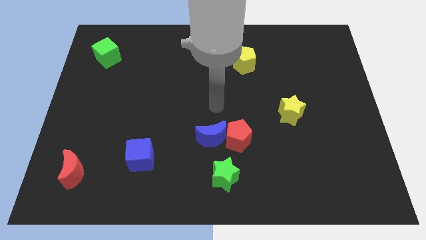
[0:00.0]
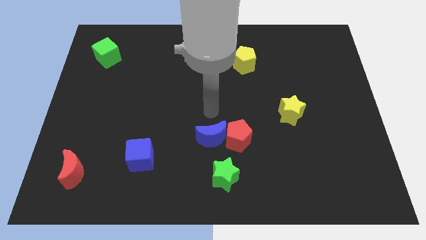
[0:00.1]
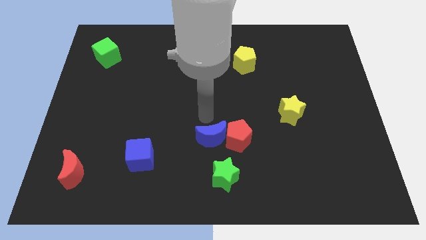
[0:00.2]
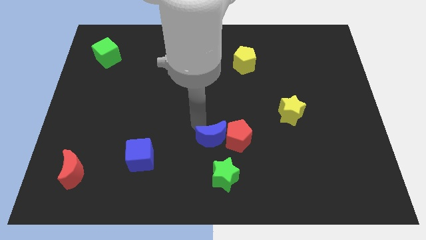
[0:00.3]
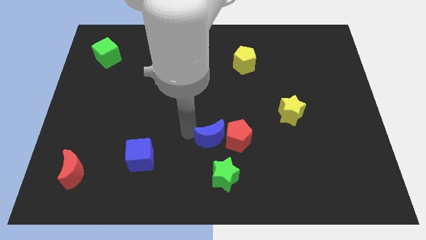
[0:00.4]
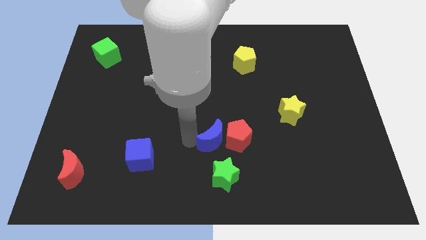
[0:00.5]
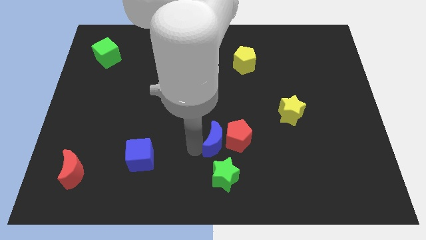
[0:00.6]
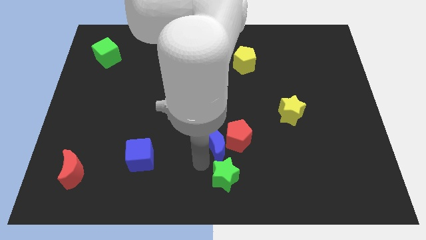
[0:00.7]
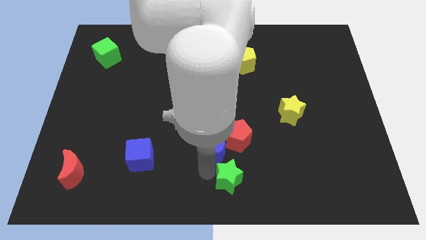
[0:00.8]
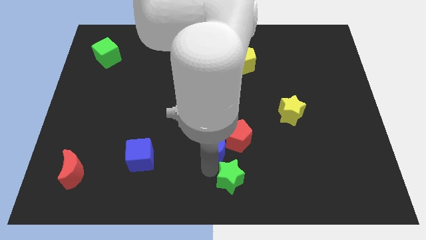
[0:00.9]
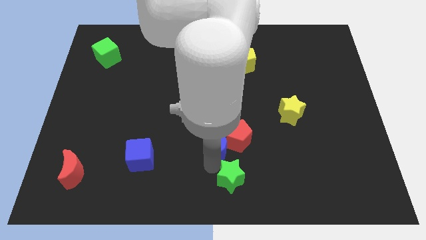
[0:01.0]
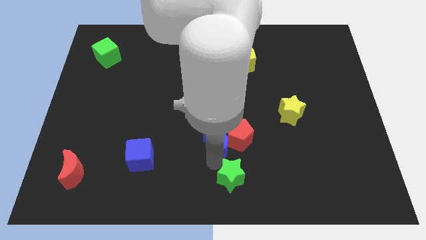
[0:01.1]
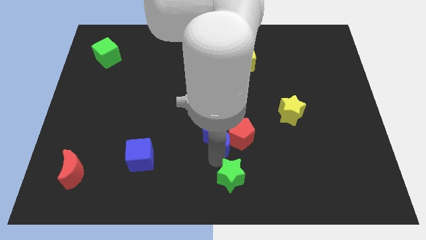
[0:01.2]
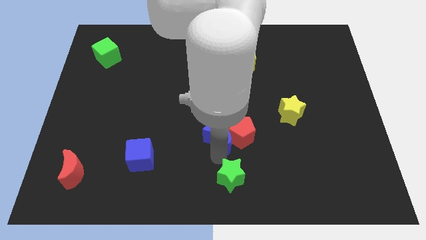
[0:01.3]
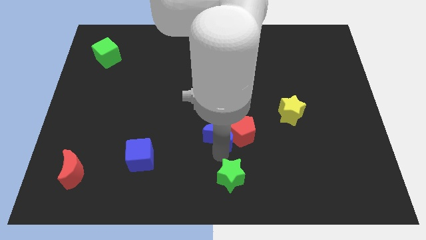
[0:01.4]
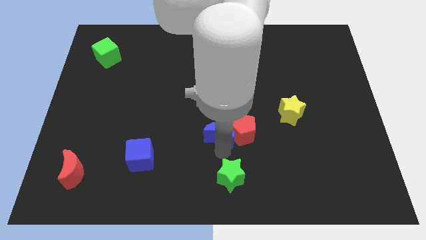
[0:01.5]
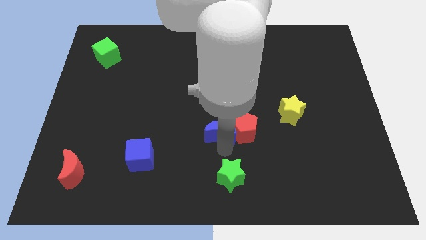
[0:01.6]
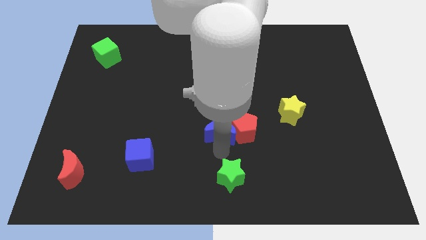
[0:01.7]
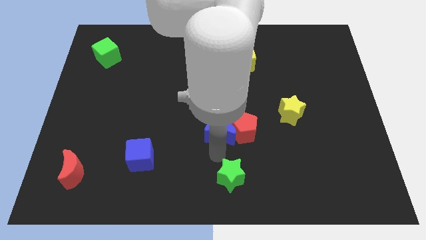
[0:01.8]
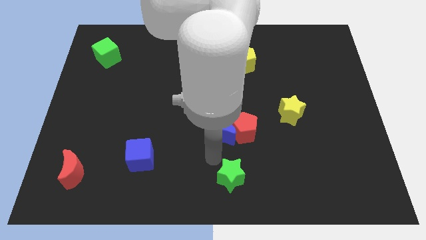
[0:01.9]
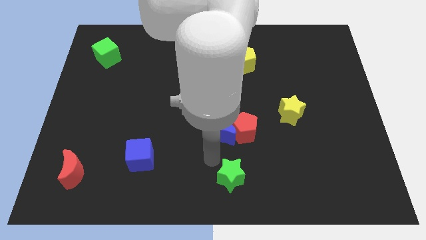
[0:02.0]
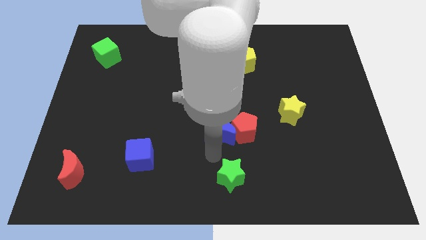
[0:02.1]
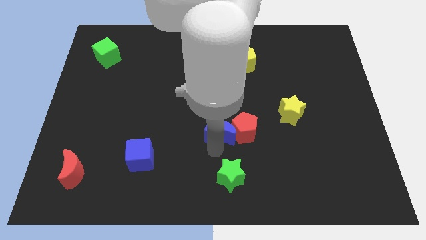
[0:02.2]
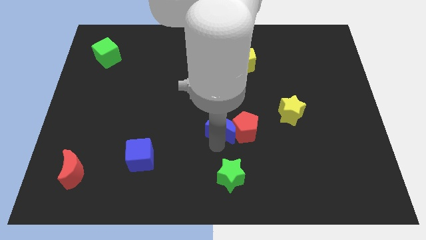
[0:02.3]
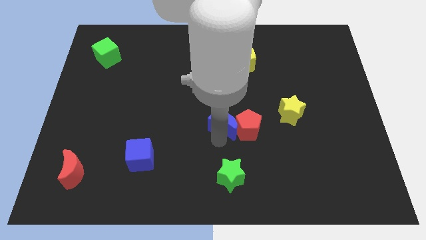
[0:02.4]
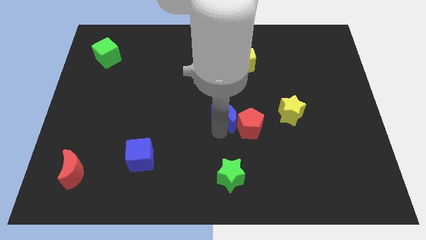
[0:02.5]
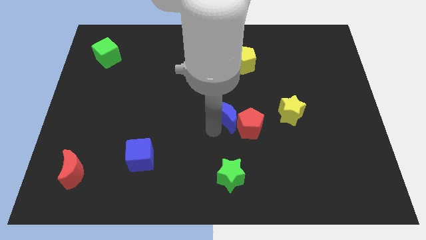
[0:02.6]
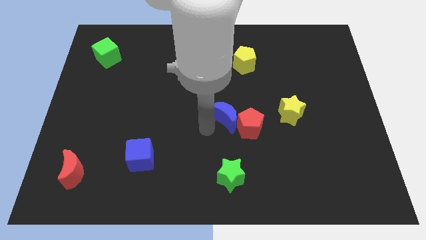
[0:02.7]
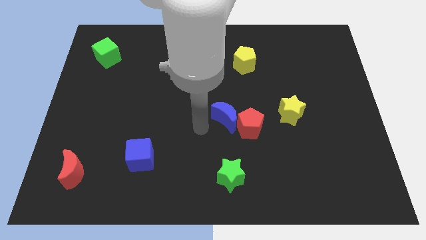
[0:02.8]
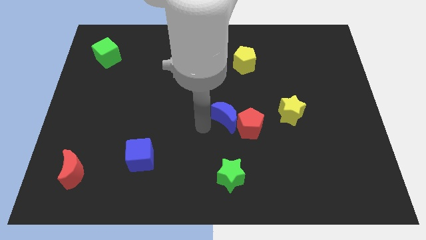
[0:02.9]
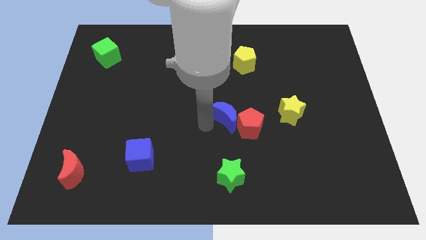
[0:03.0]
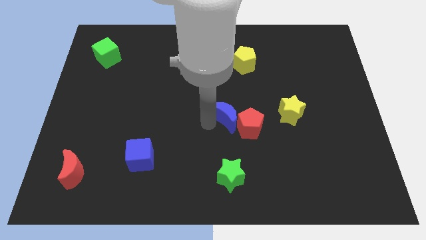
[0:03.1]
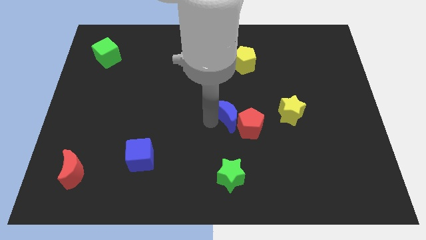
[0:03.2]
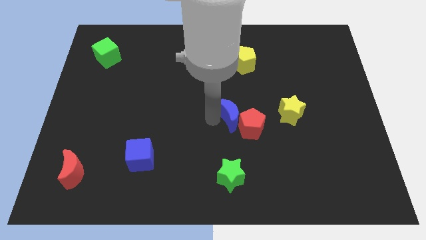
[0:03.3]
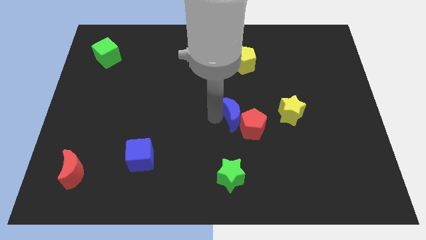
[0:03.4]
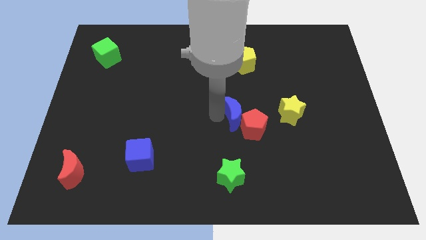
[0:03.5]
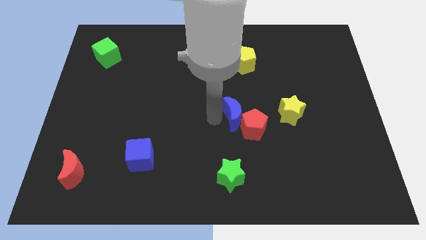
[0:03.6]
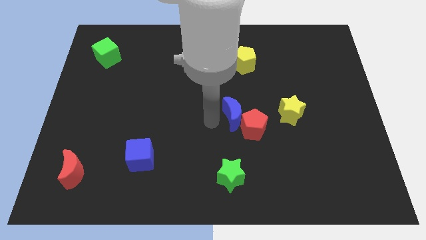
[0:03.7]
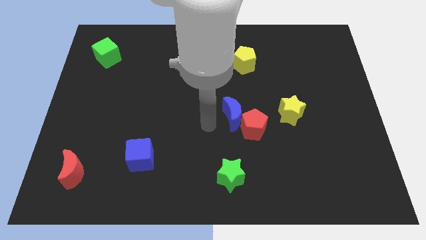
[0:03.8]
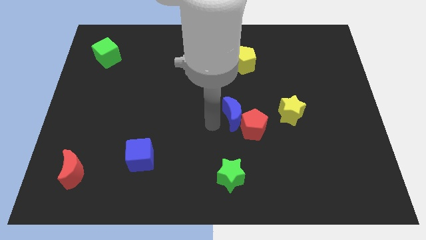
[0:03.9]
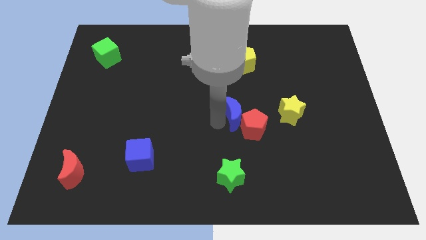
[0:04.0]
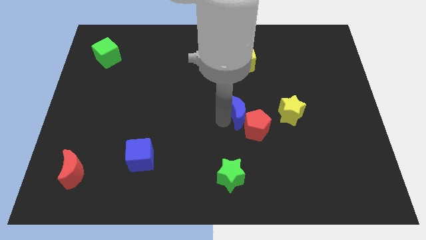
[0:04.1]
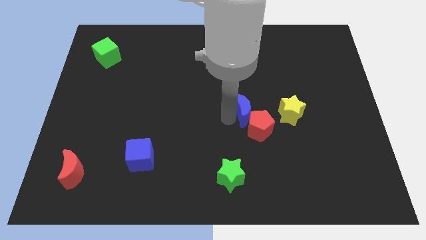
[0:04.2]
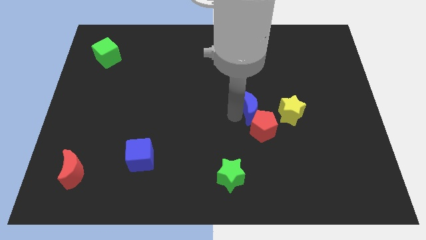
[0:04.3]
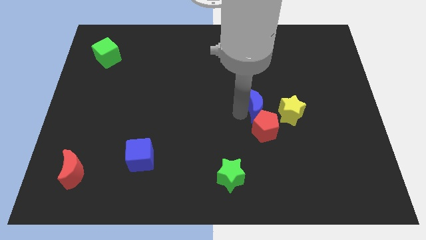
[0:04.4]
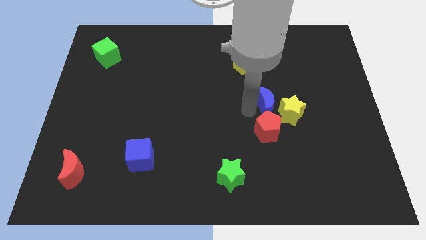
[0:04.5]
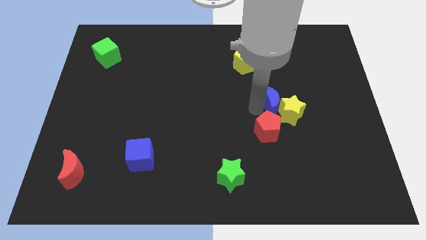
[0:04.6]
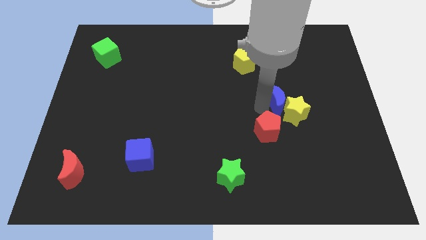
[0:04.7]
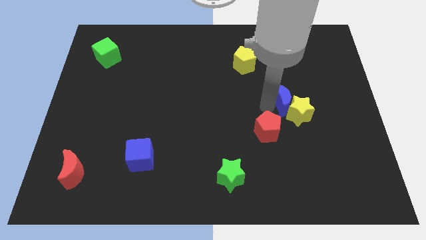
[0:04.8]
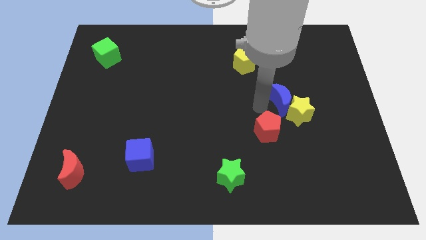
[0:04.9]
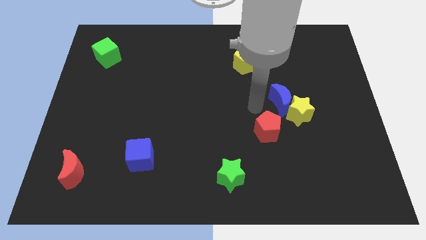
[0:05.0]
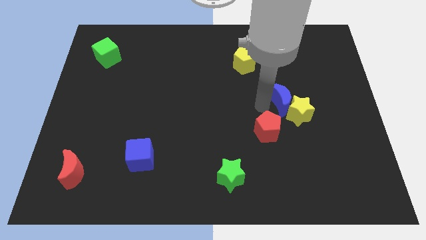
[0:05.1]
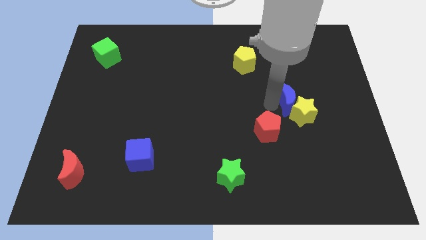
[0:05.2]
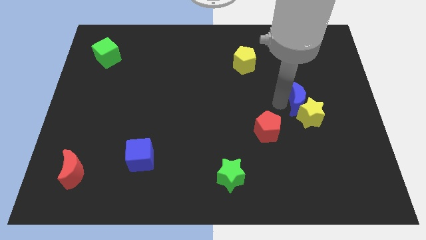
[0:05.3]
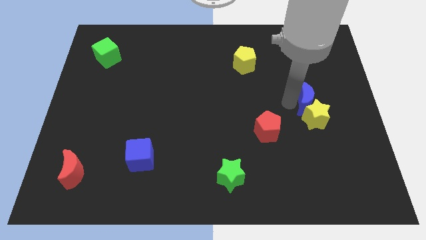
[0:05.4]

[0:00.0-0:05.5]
slide the blue moon to the top right of the yellow star

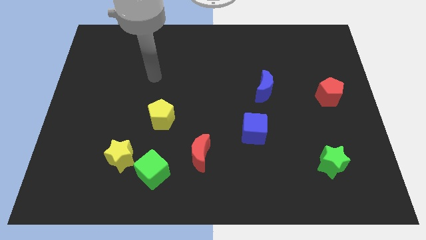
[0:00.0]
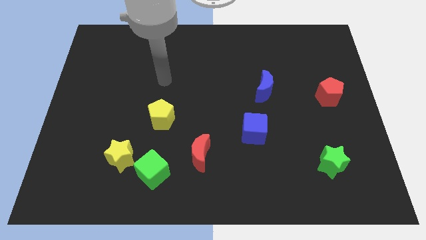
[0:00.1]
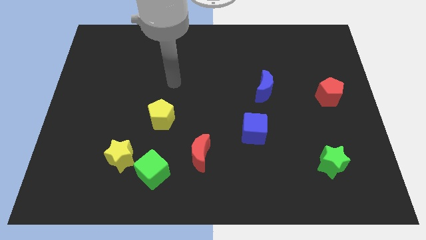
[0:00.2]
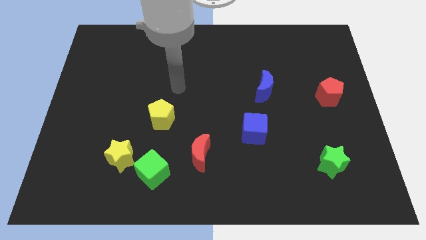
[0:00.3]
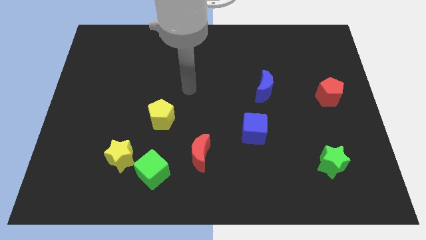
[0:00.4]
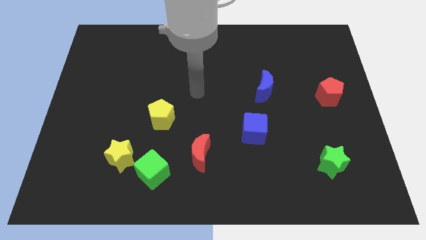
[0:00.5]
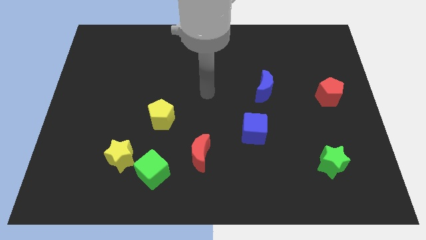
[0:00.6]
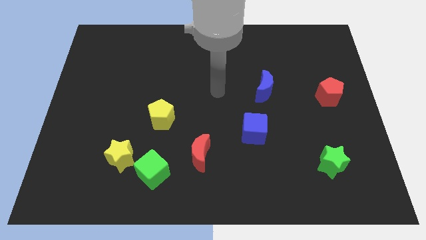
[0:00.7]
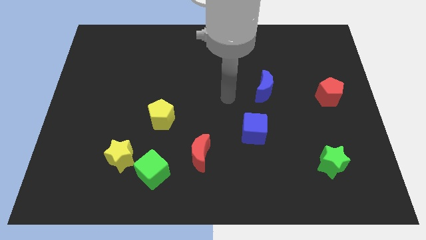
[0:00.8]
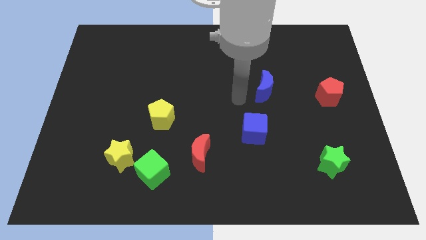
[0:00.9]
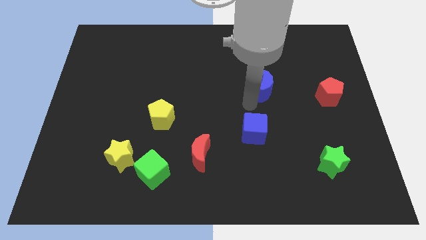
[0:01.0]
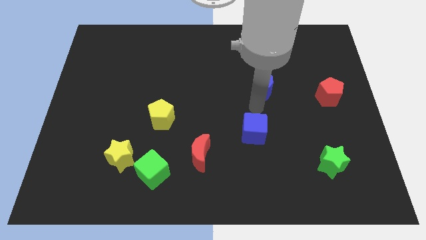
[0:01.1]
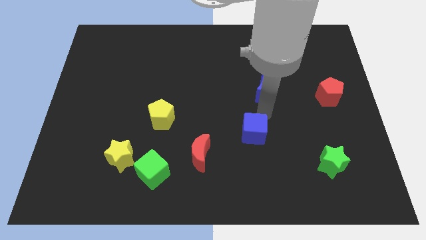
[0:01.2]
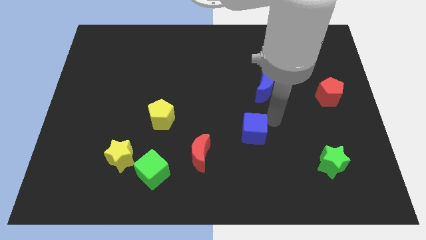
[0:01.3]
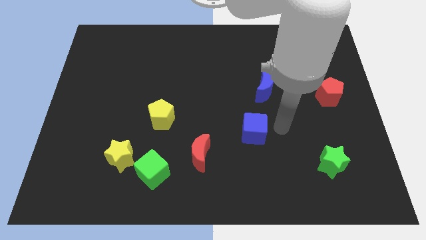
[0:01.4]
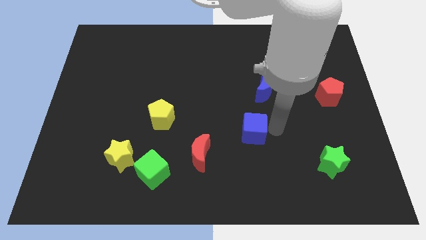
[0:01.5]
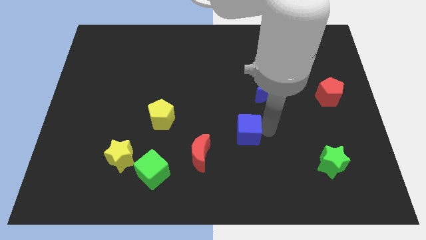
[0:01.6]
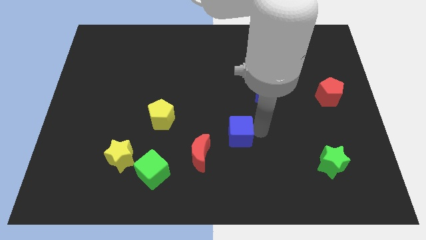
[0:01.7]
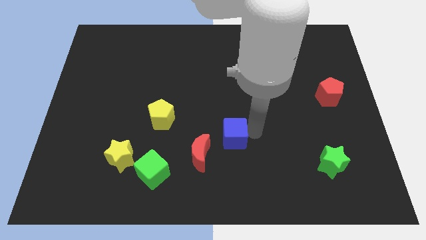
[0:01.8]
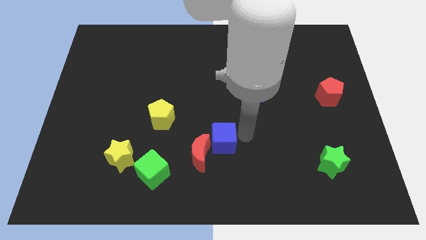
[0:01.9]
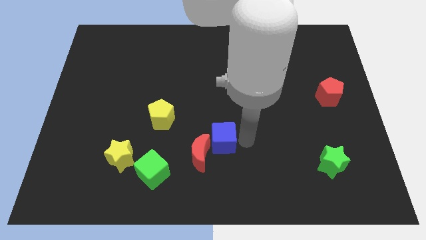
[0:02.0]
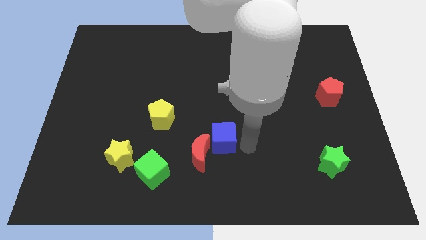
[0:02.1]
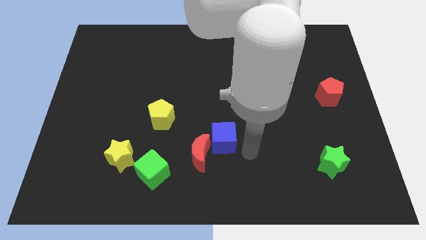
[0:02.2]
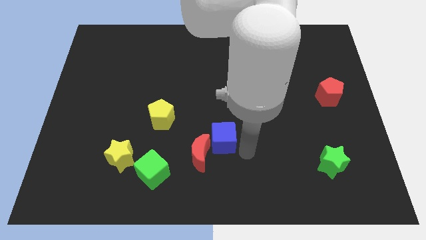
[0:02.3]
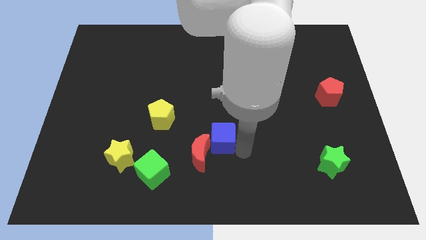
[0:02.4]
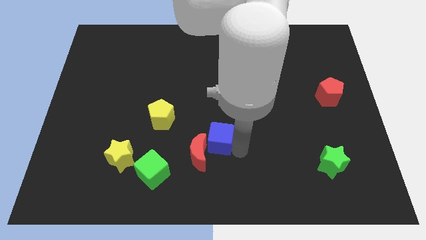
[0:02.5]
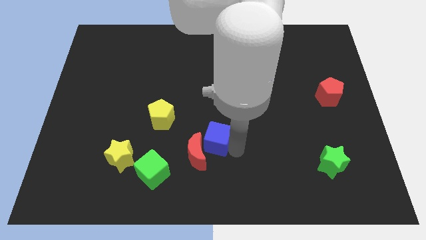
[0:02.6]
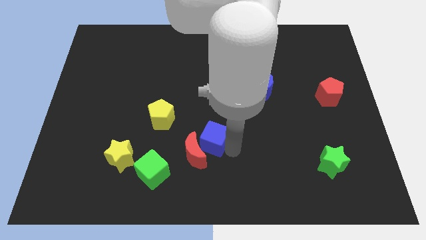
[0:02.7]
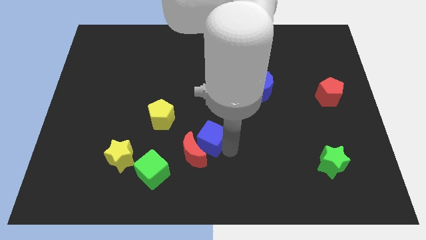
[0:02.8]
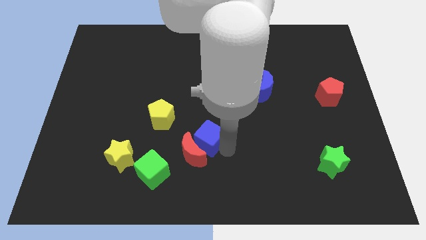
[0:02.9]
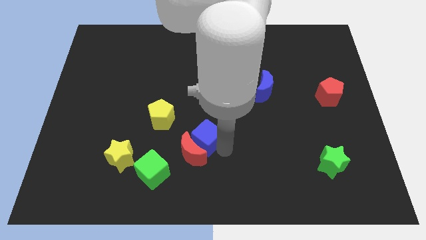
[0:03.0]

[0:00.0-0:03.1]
push the blue cube diagonally down and to the right of the yellow pentagon
